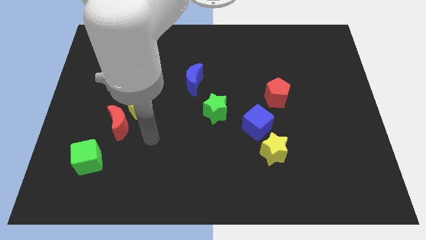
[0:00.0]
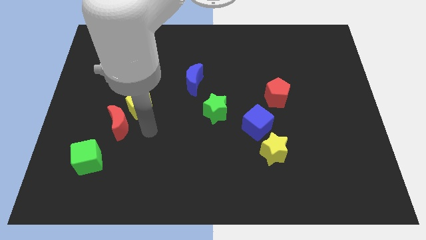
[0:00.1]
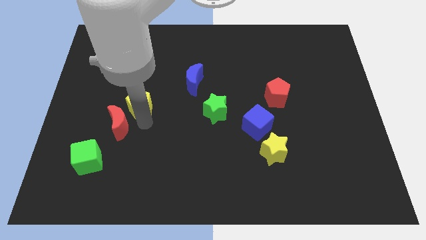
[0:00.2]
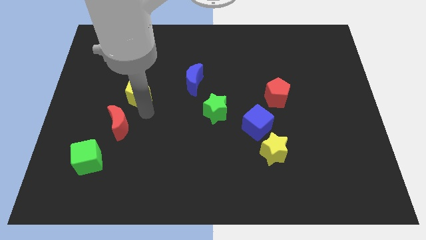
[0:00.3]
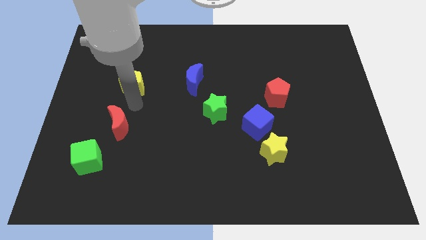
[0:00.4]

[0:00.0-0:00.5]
separate the red moon from the yellow pentagon

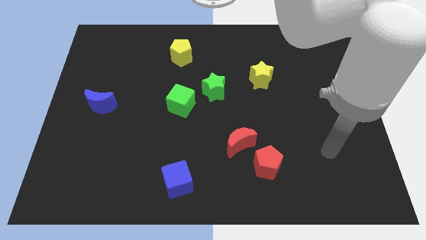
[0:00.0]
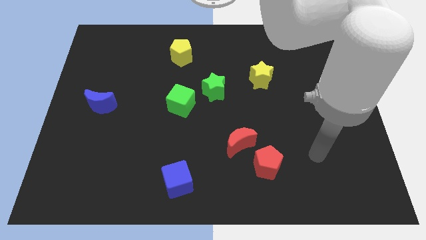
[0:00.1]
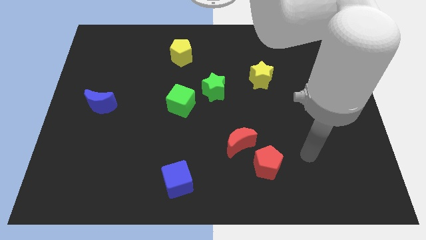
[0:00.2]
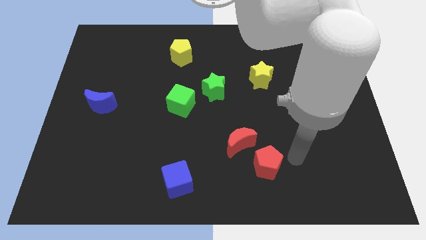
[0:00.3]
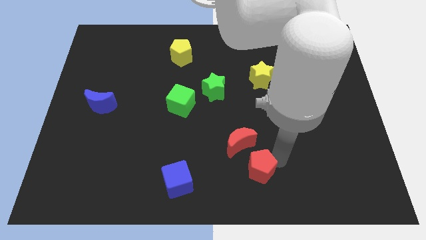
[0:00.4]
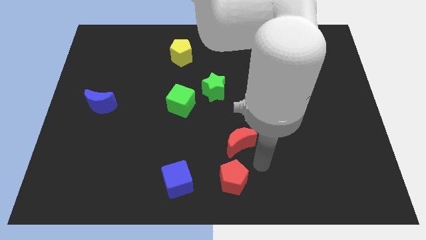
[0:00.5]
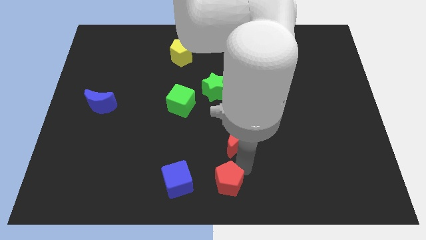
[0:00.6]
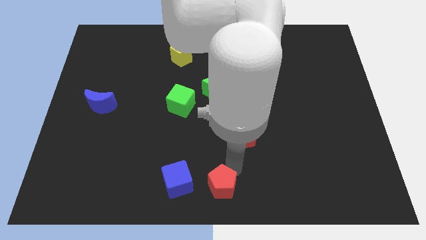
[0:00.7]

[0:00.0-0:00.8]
move the red moon away from the red pentagon

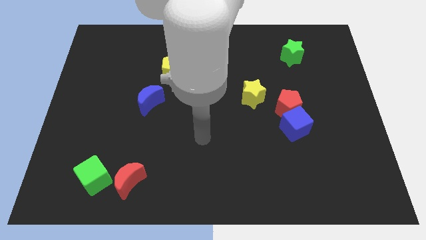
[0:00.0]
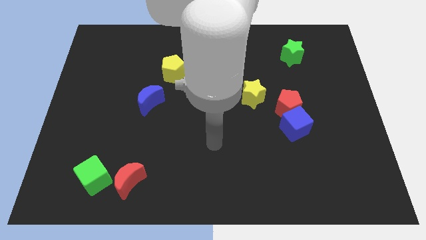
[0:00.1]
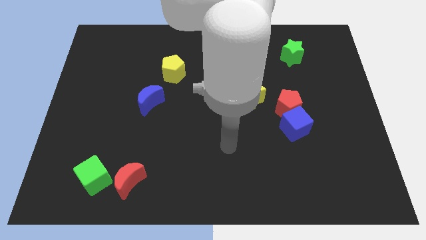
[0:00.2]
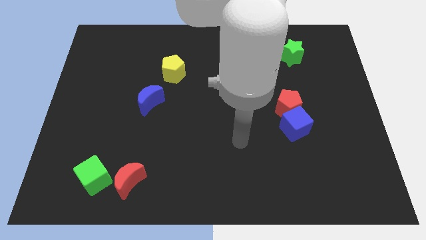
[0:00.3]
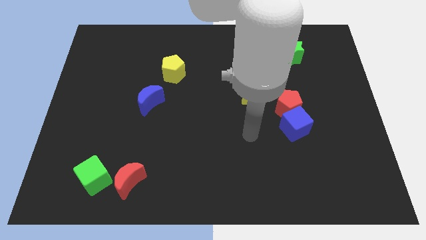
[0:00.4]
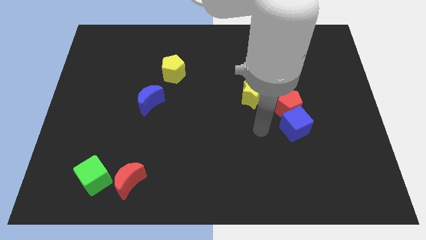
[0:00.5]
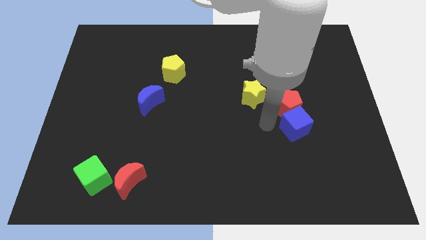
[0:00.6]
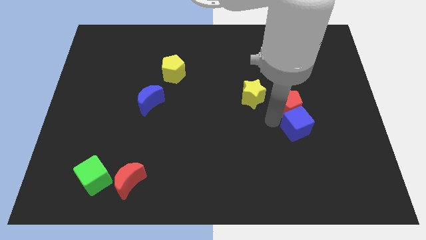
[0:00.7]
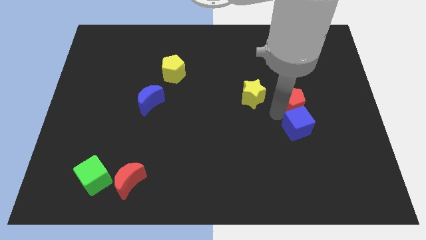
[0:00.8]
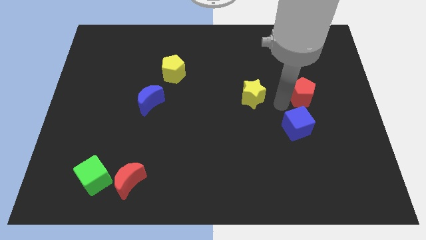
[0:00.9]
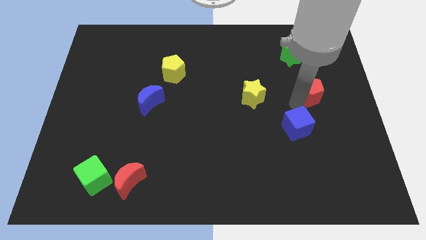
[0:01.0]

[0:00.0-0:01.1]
move the blue cube away from the red pentagon

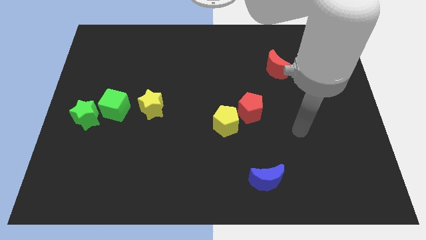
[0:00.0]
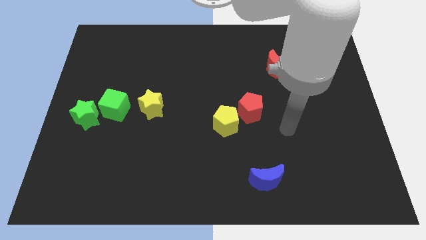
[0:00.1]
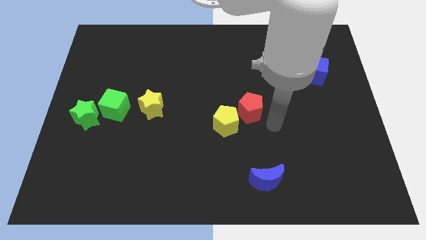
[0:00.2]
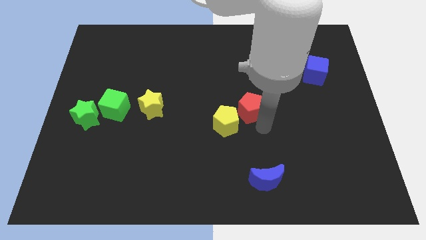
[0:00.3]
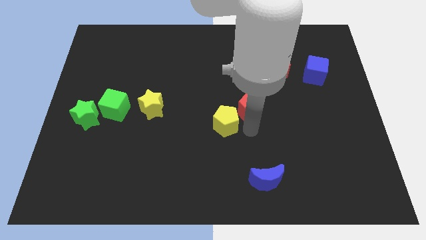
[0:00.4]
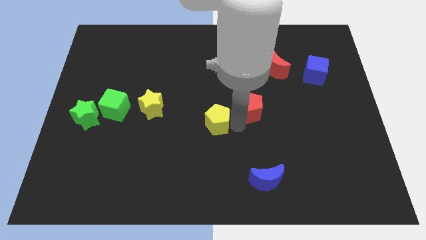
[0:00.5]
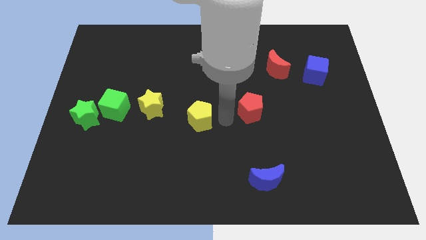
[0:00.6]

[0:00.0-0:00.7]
move the red pentagon away from the yellow pentagon

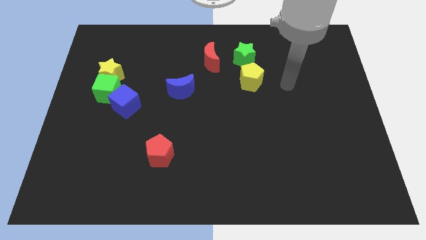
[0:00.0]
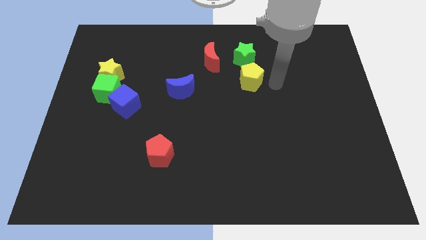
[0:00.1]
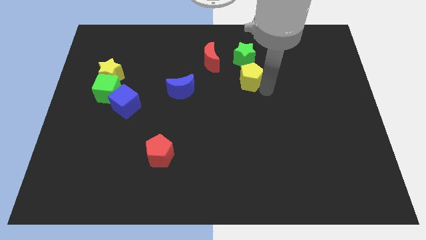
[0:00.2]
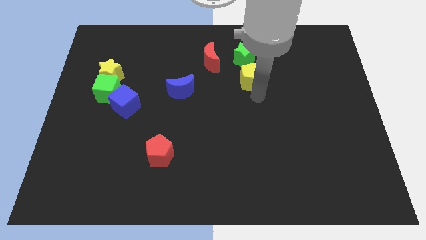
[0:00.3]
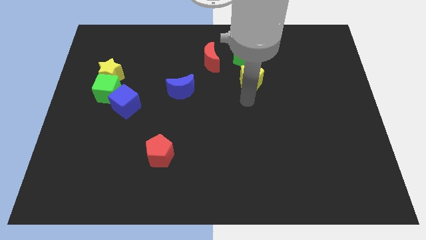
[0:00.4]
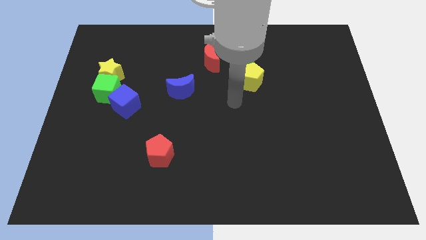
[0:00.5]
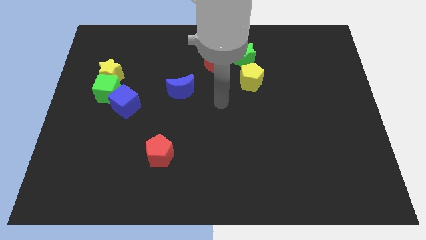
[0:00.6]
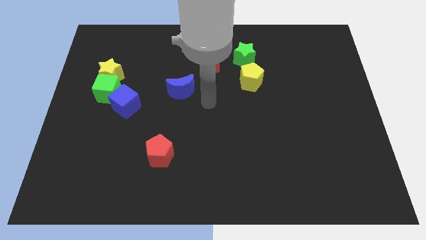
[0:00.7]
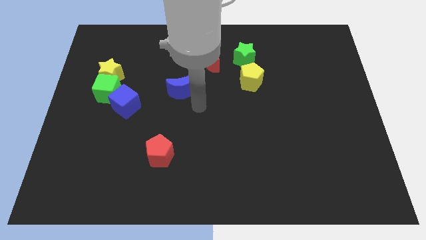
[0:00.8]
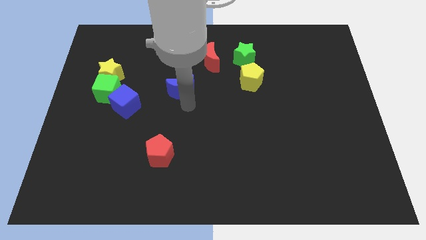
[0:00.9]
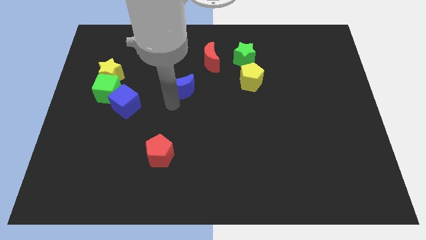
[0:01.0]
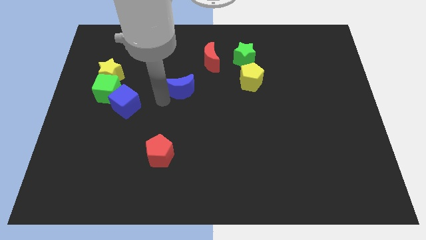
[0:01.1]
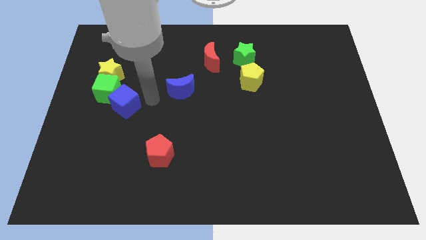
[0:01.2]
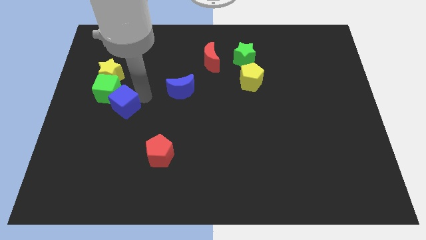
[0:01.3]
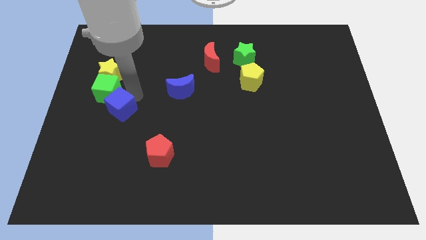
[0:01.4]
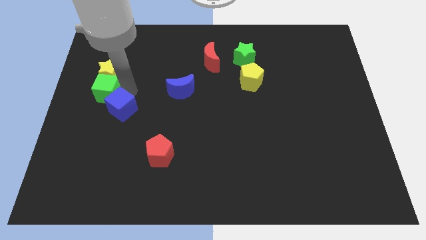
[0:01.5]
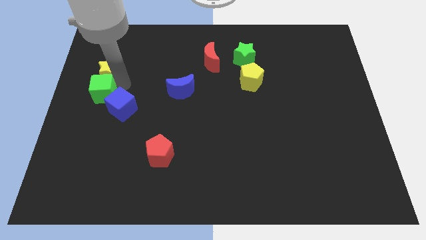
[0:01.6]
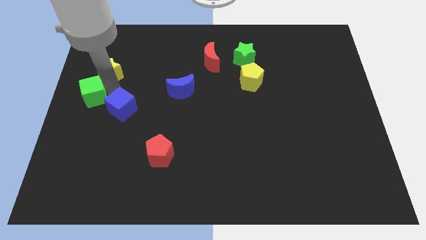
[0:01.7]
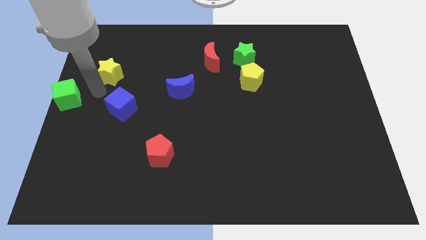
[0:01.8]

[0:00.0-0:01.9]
move the yellow star away from the green cube

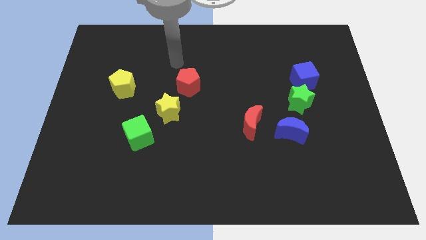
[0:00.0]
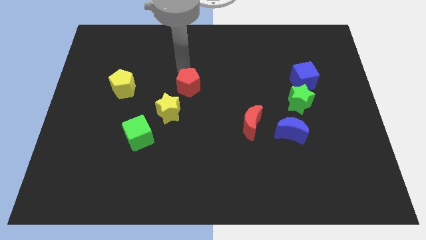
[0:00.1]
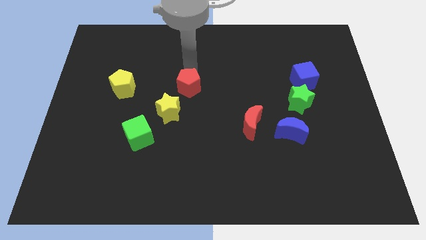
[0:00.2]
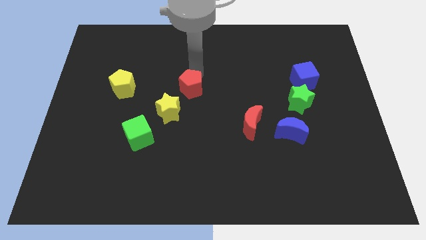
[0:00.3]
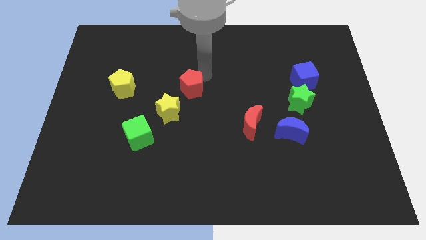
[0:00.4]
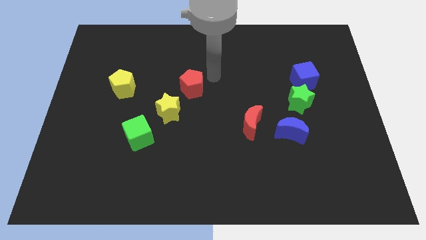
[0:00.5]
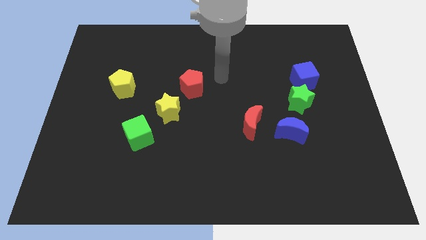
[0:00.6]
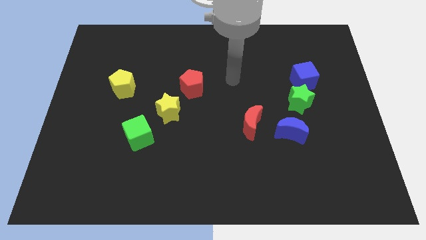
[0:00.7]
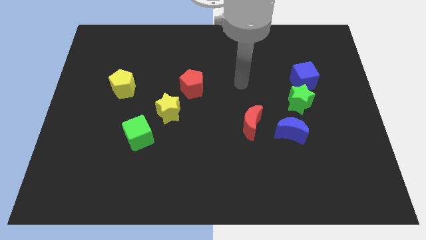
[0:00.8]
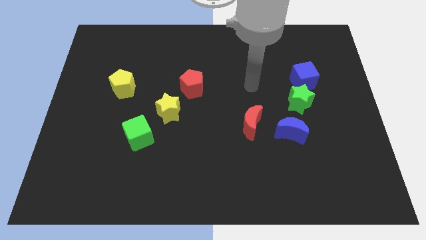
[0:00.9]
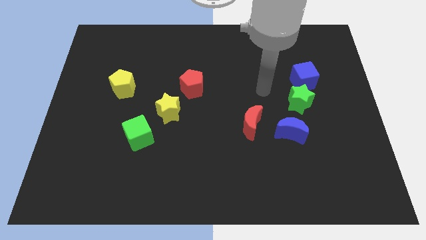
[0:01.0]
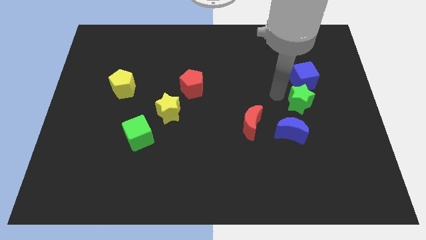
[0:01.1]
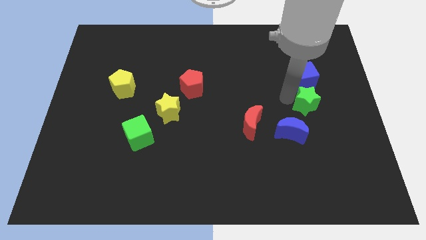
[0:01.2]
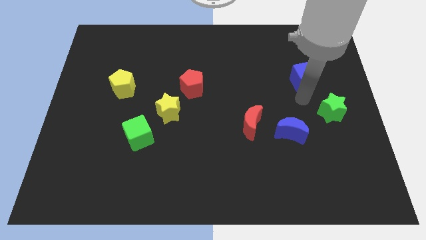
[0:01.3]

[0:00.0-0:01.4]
move the blue cube away from the green star

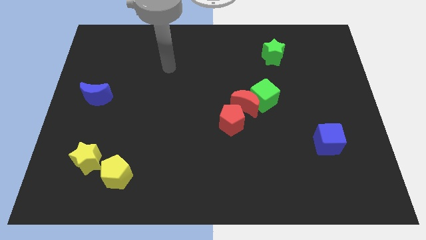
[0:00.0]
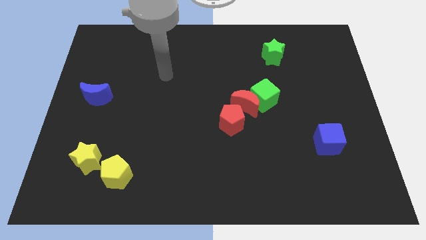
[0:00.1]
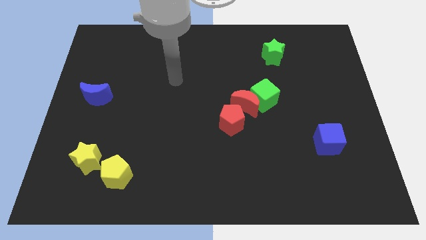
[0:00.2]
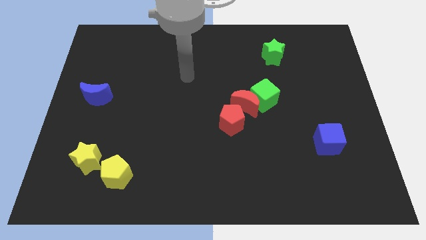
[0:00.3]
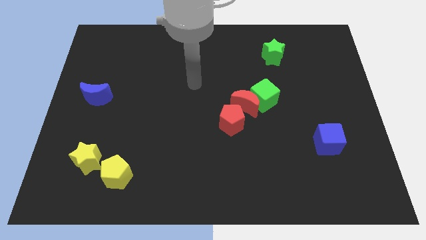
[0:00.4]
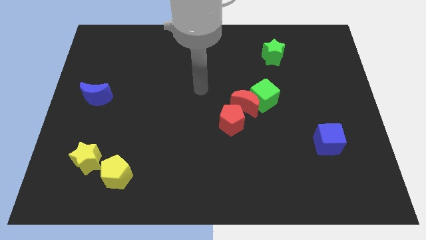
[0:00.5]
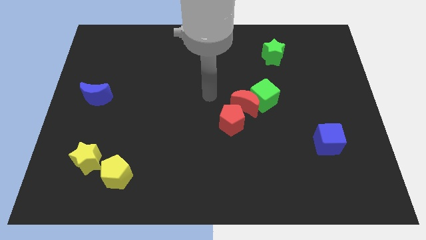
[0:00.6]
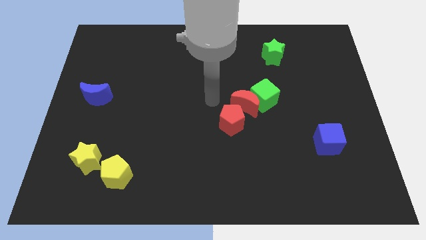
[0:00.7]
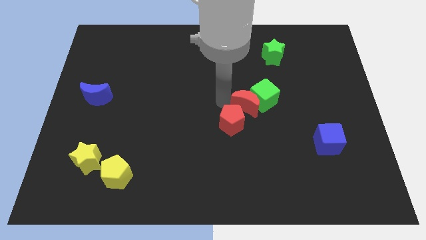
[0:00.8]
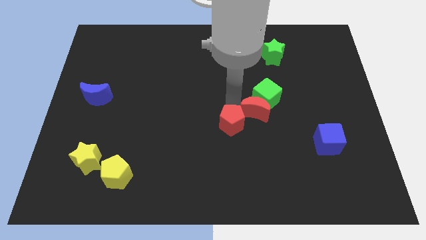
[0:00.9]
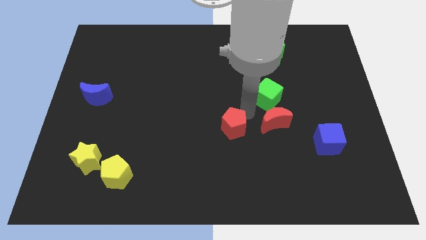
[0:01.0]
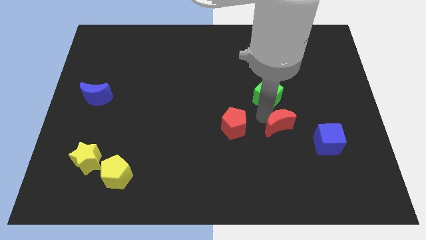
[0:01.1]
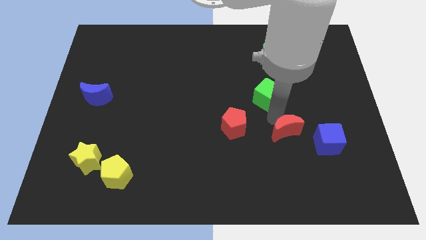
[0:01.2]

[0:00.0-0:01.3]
pull the green cube apart from the red moon

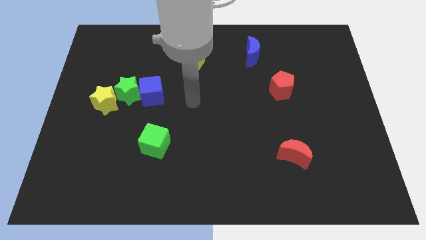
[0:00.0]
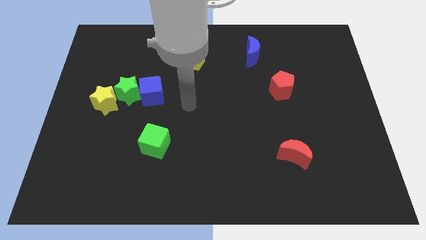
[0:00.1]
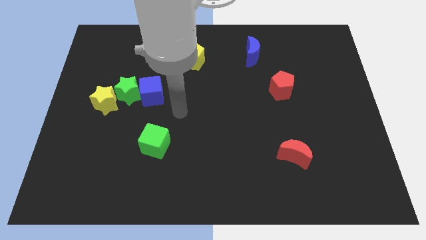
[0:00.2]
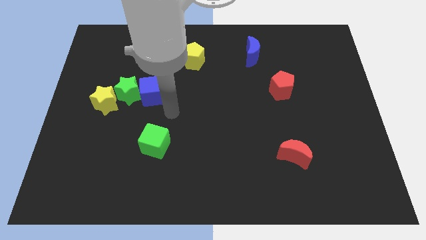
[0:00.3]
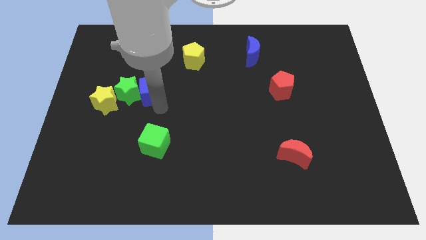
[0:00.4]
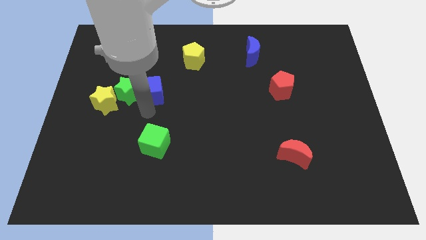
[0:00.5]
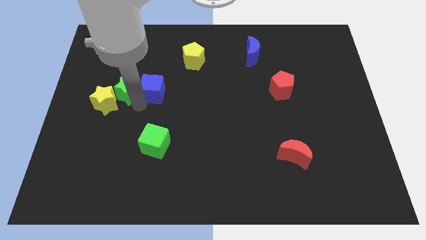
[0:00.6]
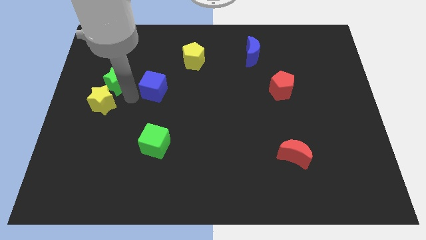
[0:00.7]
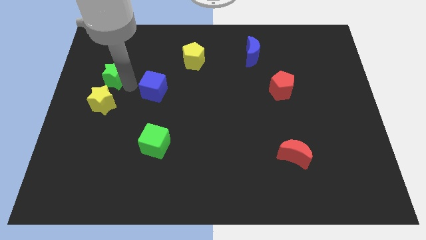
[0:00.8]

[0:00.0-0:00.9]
separate the blue cube from the green star

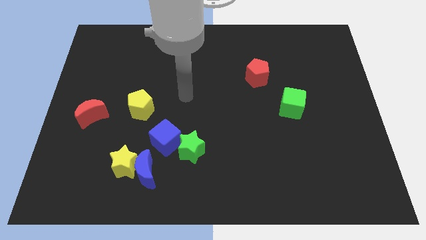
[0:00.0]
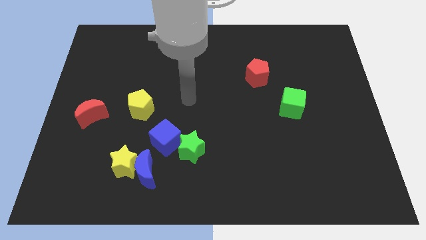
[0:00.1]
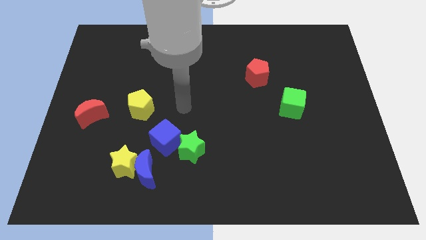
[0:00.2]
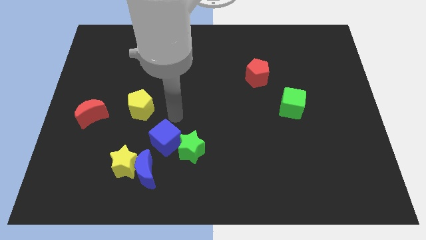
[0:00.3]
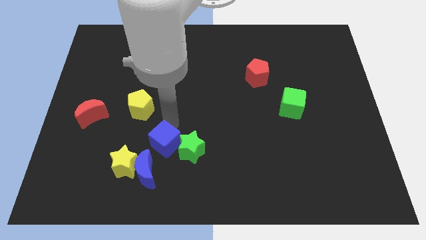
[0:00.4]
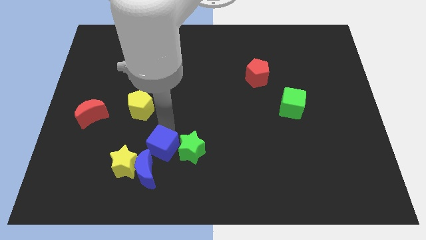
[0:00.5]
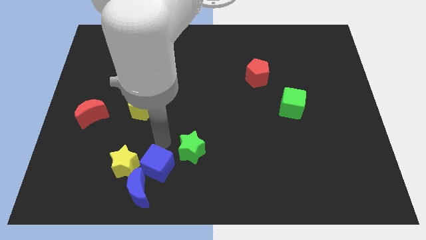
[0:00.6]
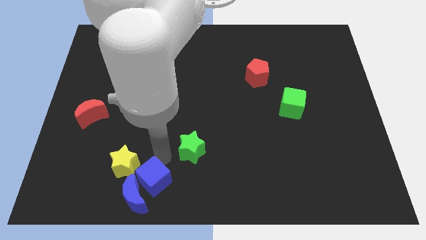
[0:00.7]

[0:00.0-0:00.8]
pull the green star apart from the blue cube
